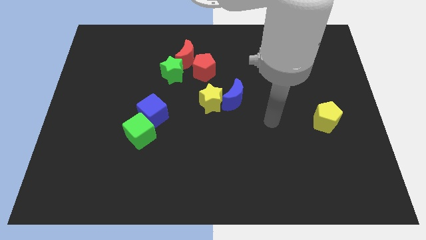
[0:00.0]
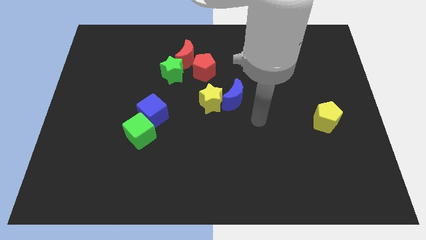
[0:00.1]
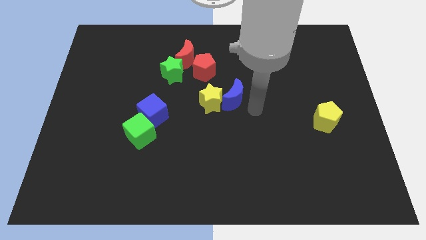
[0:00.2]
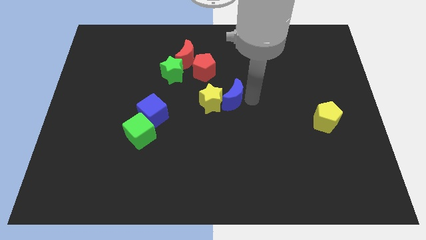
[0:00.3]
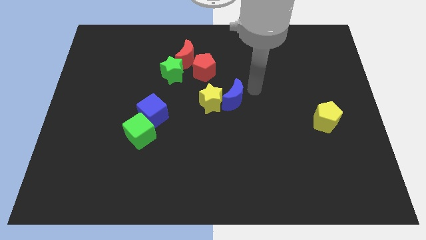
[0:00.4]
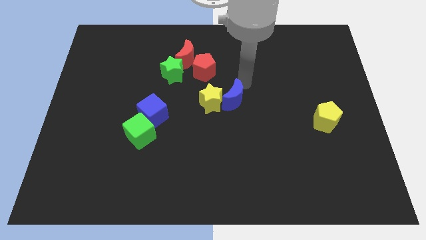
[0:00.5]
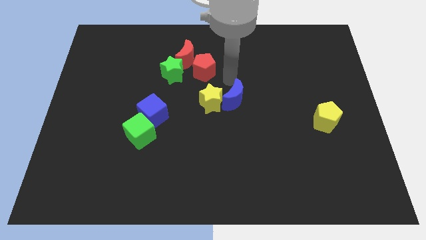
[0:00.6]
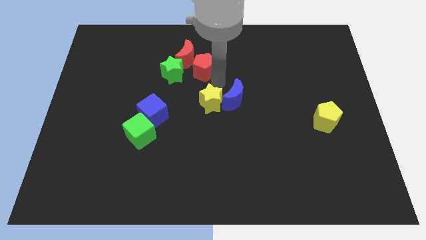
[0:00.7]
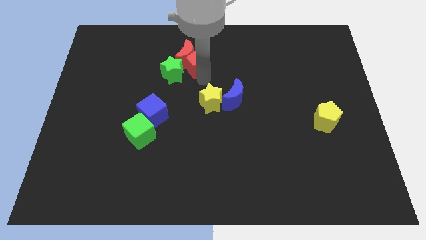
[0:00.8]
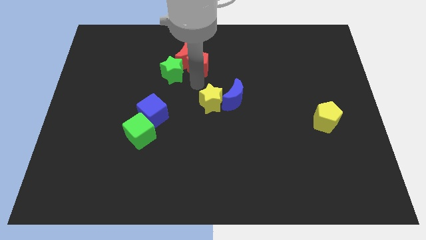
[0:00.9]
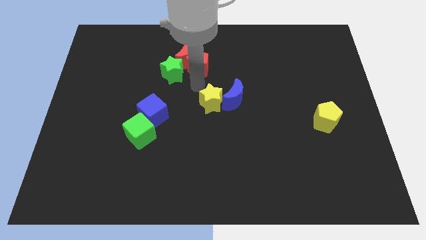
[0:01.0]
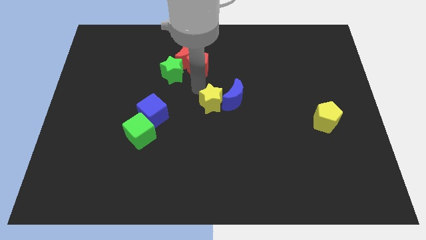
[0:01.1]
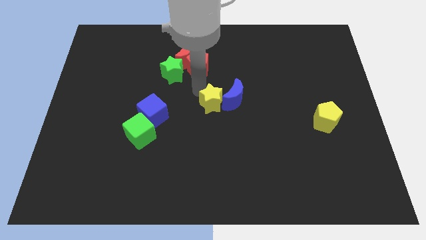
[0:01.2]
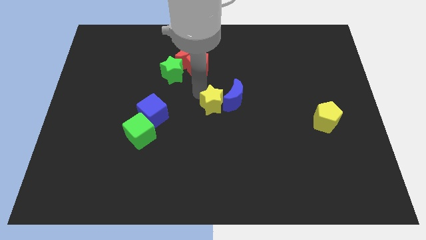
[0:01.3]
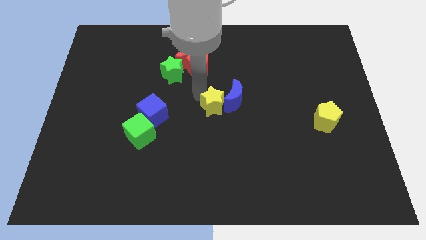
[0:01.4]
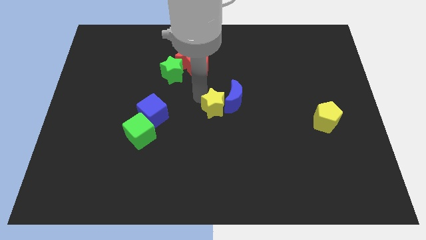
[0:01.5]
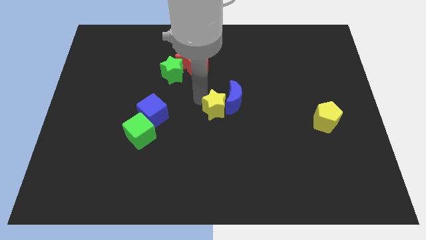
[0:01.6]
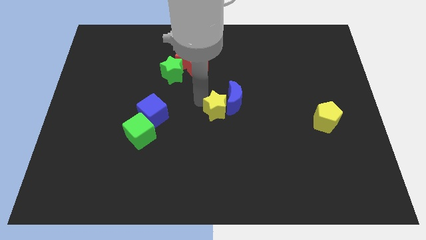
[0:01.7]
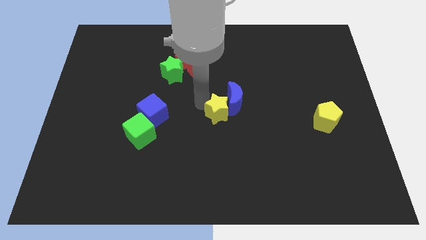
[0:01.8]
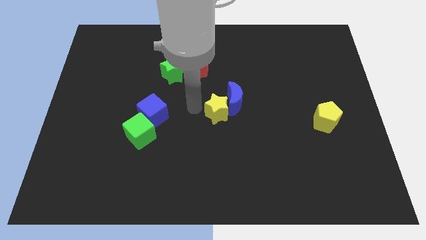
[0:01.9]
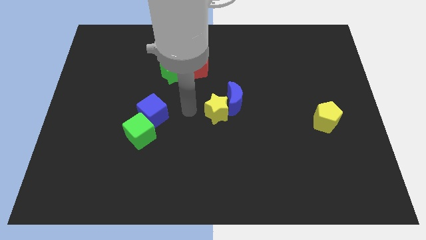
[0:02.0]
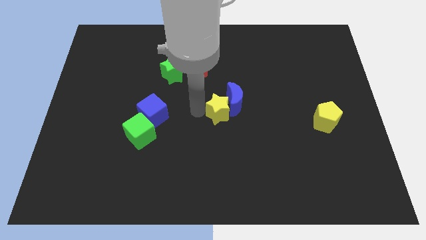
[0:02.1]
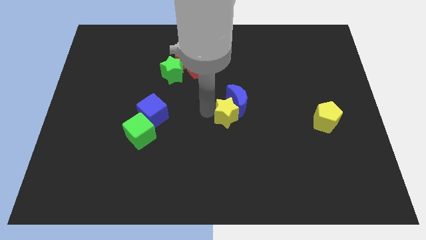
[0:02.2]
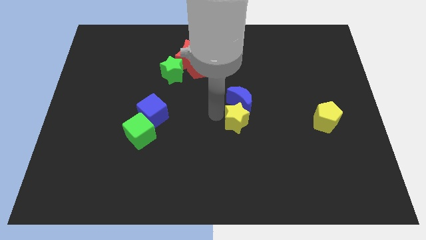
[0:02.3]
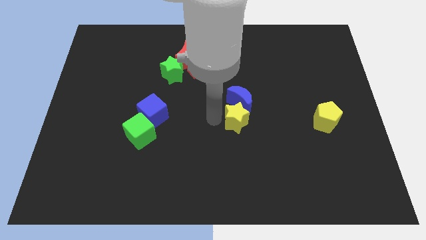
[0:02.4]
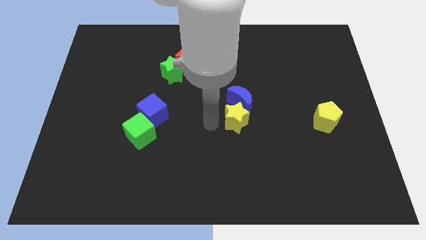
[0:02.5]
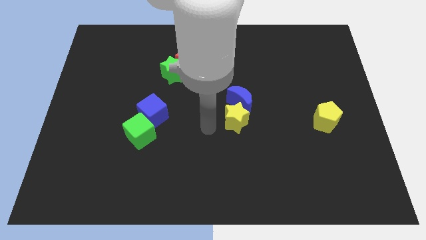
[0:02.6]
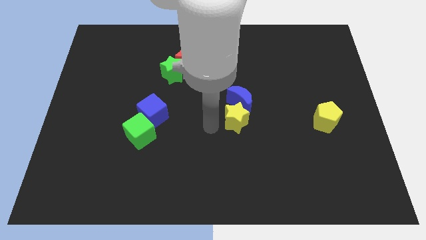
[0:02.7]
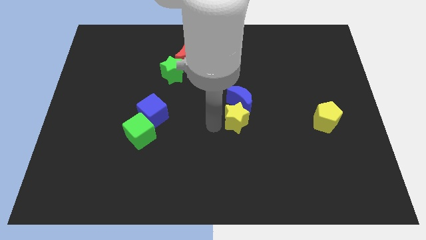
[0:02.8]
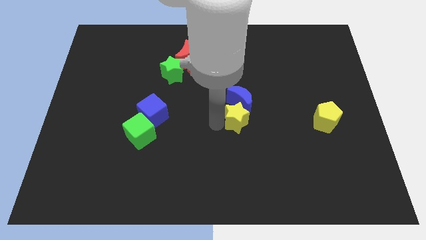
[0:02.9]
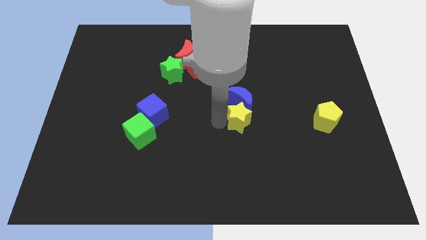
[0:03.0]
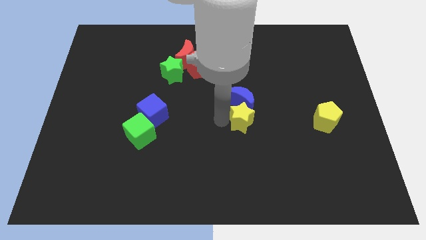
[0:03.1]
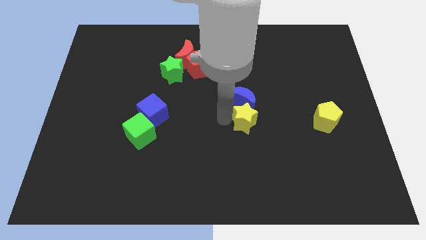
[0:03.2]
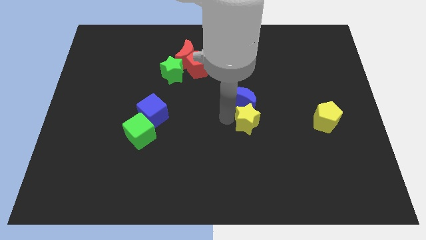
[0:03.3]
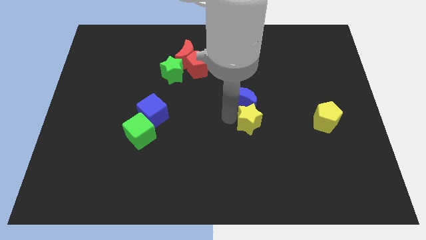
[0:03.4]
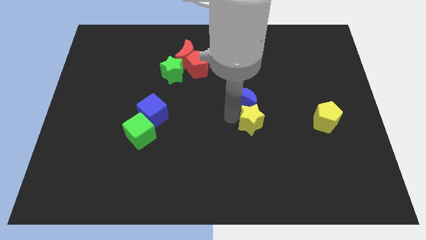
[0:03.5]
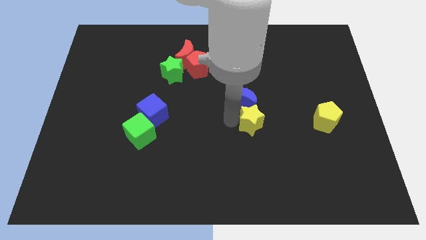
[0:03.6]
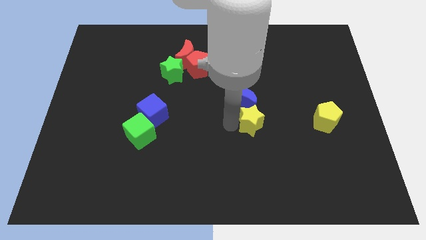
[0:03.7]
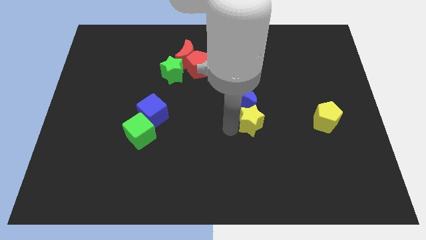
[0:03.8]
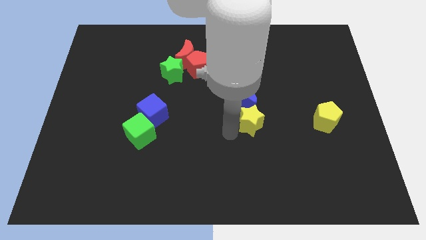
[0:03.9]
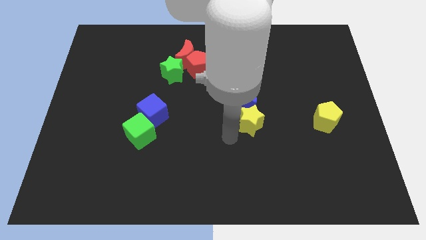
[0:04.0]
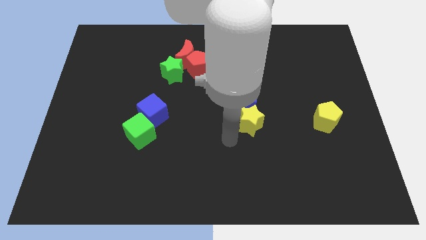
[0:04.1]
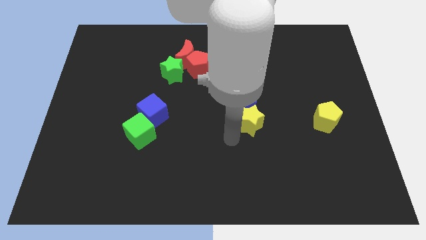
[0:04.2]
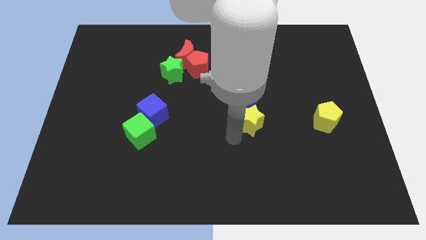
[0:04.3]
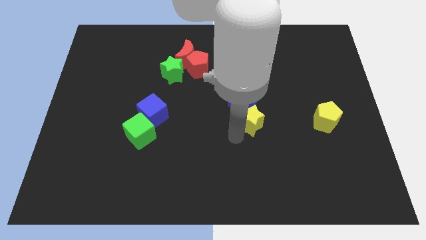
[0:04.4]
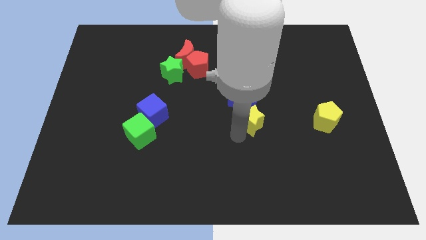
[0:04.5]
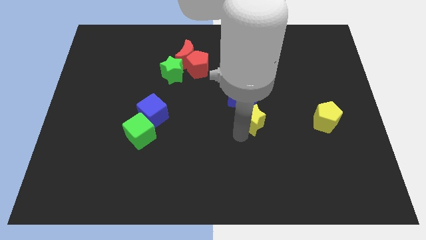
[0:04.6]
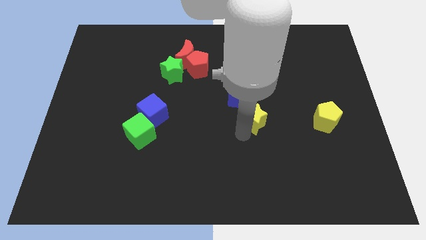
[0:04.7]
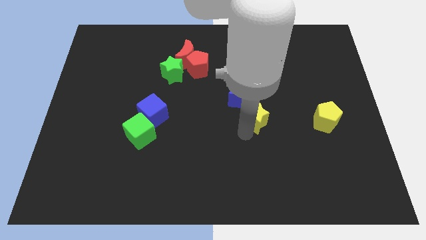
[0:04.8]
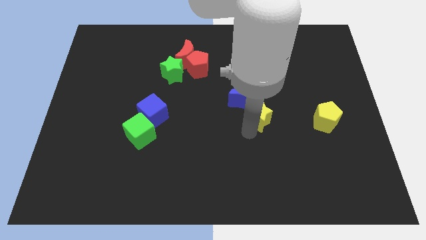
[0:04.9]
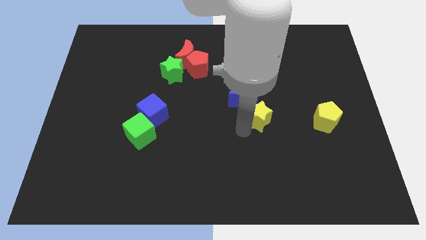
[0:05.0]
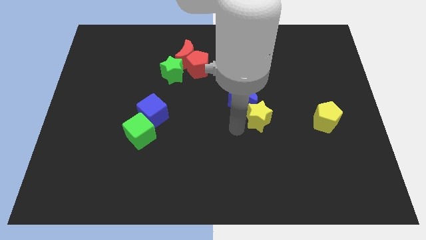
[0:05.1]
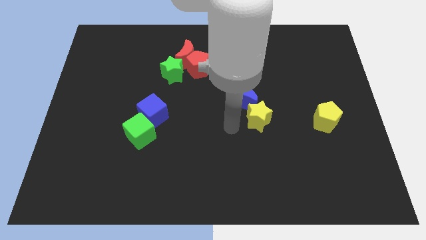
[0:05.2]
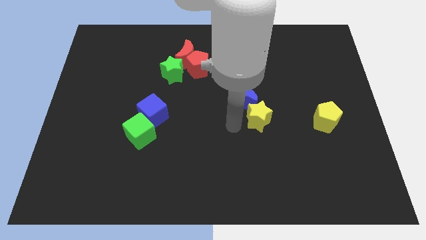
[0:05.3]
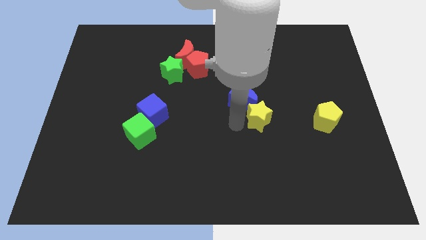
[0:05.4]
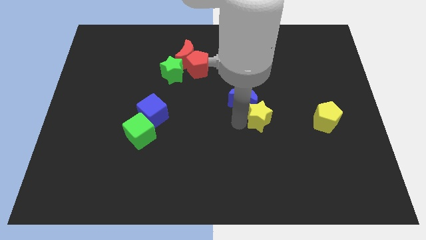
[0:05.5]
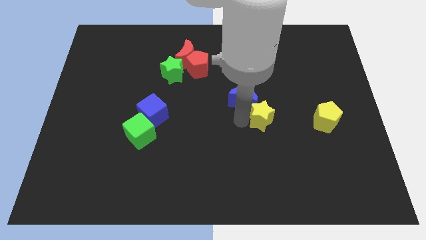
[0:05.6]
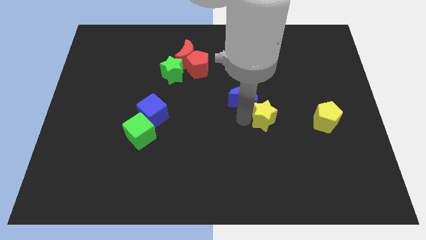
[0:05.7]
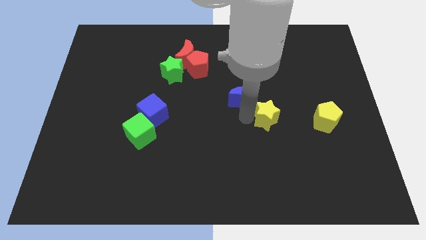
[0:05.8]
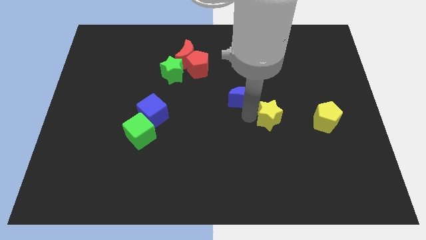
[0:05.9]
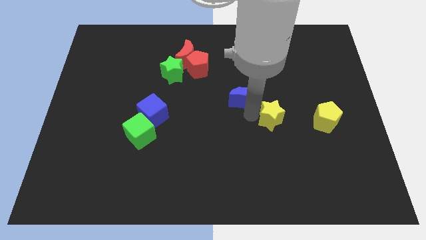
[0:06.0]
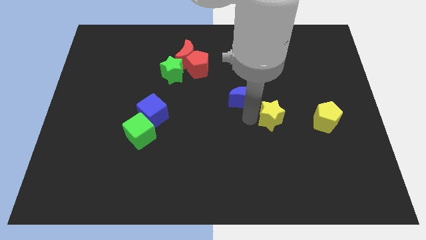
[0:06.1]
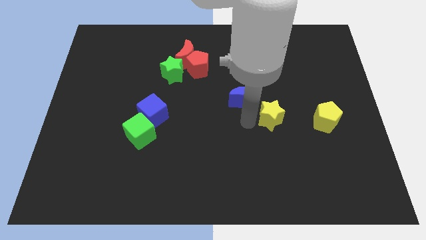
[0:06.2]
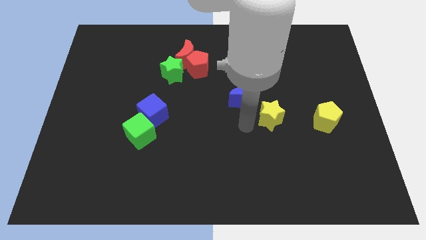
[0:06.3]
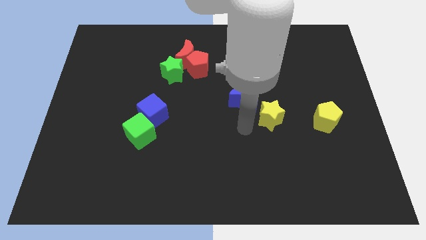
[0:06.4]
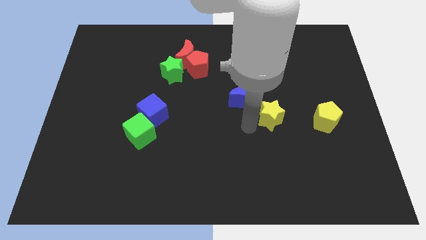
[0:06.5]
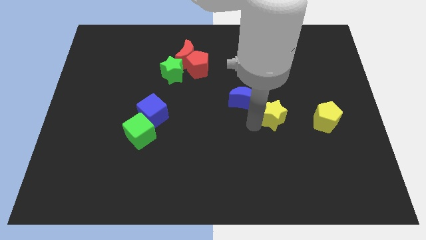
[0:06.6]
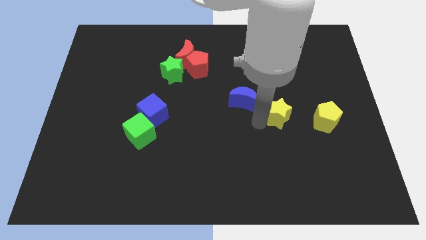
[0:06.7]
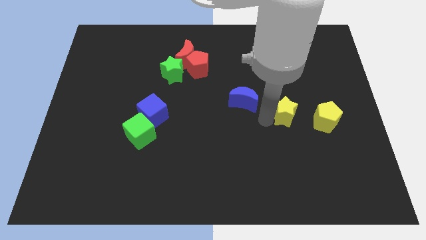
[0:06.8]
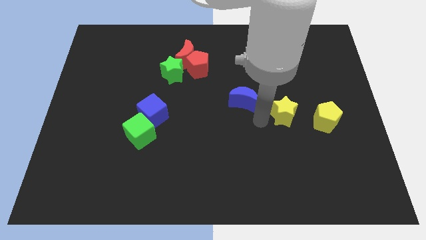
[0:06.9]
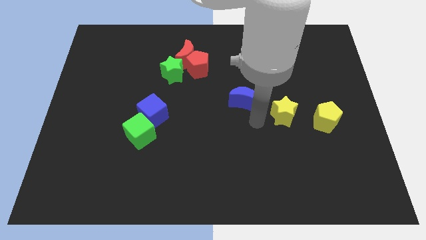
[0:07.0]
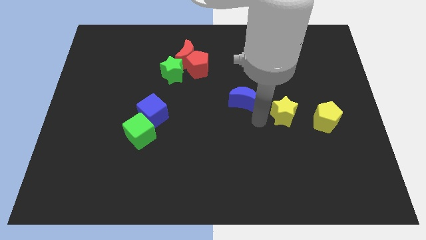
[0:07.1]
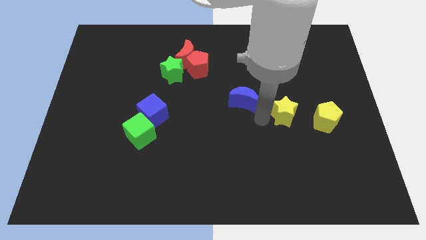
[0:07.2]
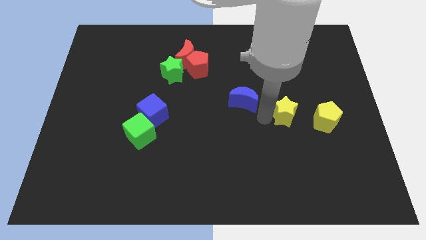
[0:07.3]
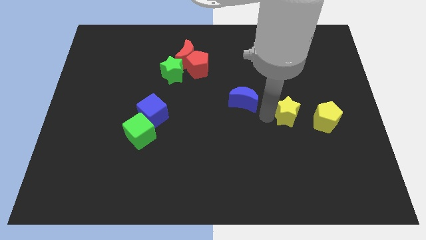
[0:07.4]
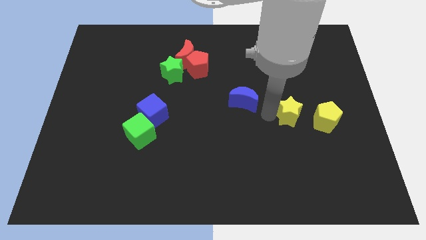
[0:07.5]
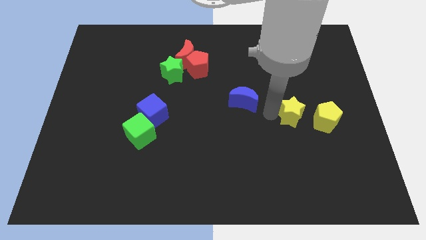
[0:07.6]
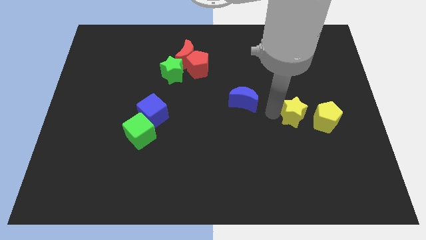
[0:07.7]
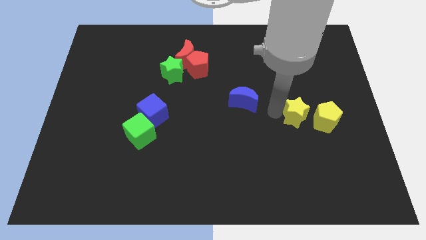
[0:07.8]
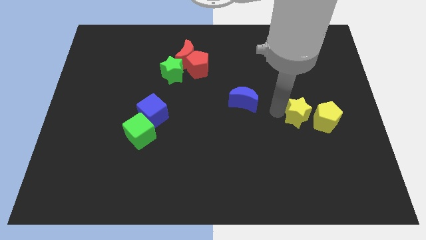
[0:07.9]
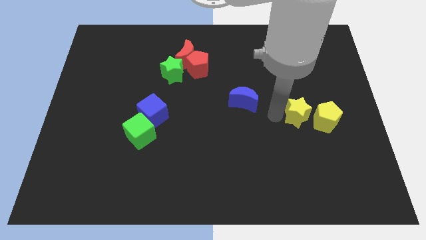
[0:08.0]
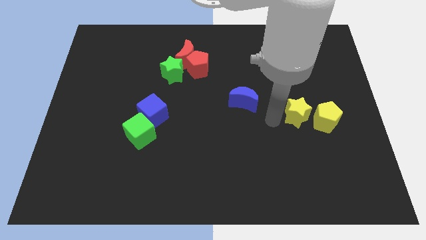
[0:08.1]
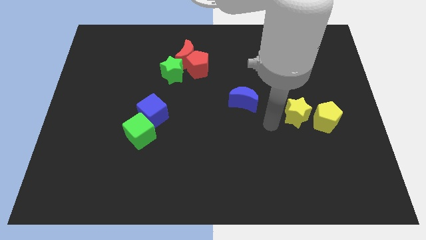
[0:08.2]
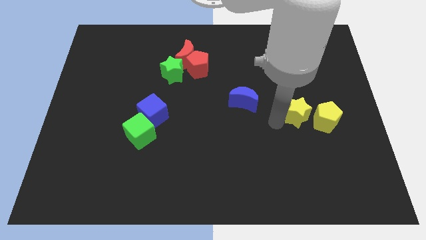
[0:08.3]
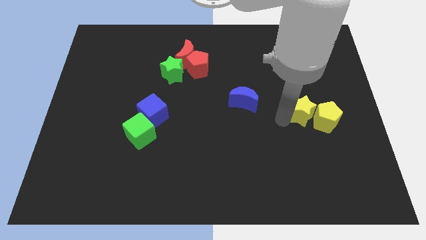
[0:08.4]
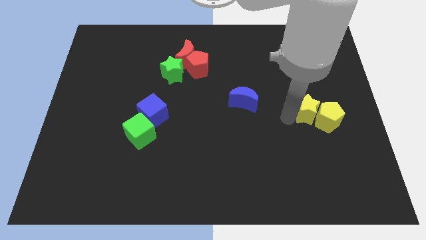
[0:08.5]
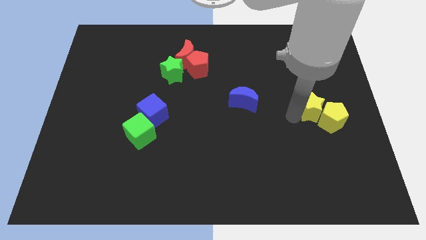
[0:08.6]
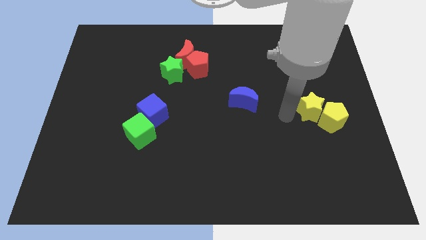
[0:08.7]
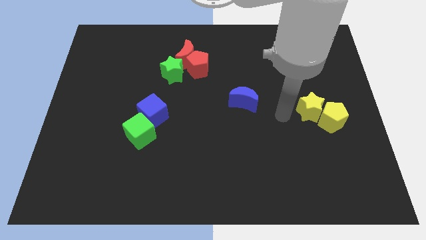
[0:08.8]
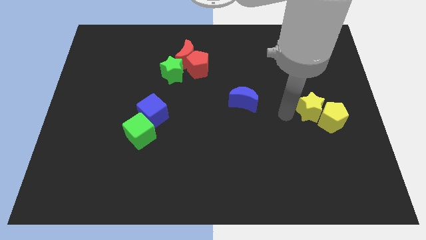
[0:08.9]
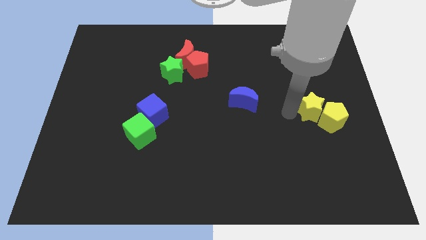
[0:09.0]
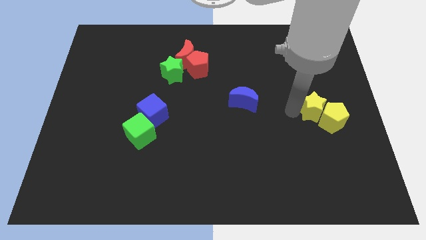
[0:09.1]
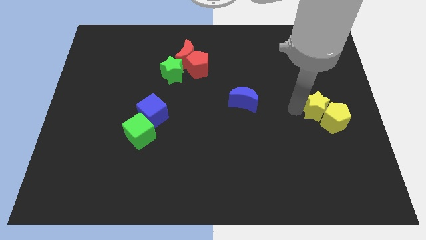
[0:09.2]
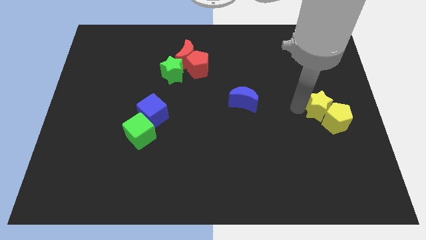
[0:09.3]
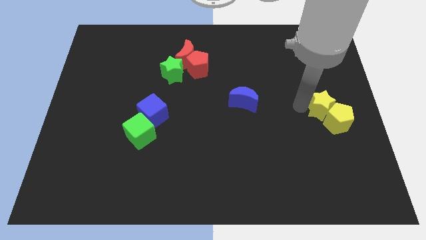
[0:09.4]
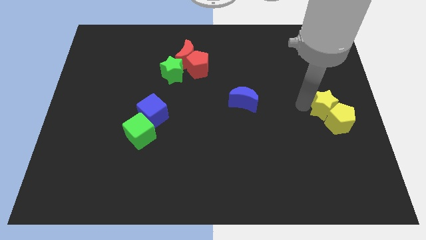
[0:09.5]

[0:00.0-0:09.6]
push the yellow star to the right side
